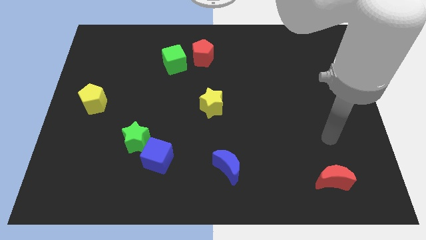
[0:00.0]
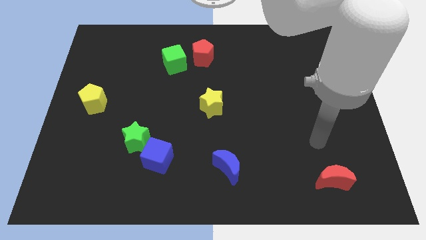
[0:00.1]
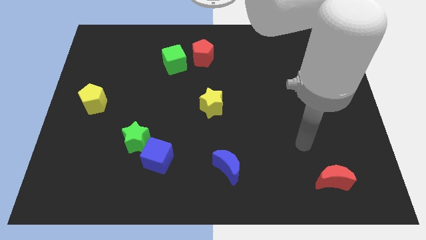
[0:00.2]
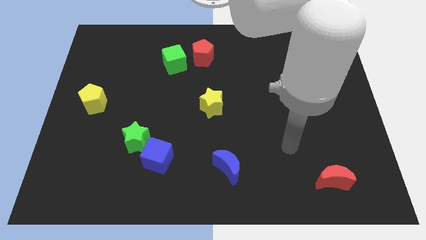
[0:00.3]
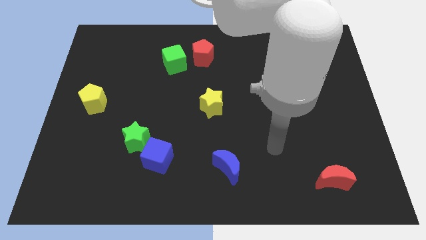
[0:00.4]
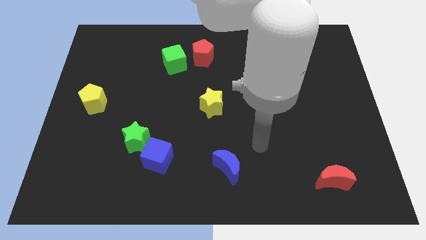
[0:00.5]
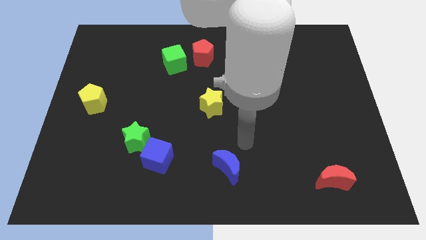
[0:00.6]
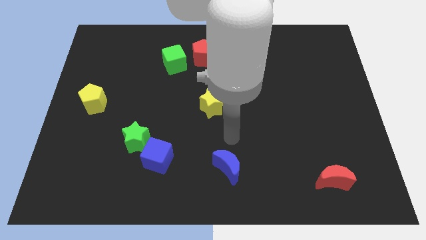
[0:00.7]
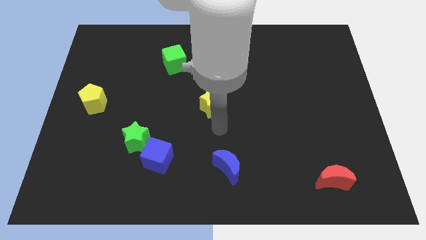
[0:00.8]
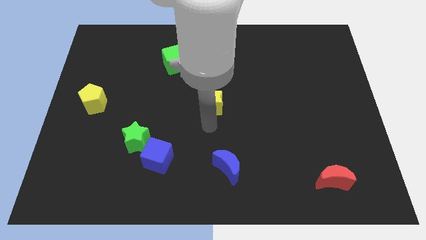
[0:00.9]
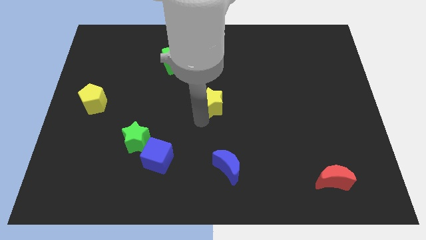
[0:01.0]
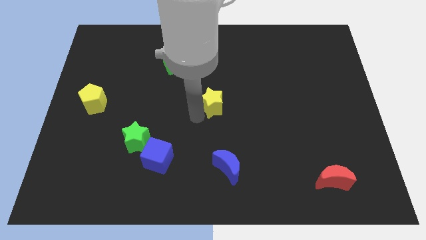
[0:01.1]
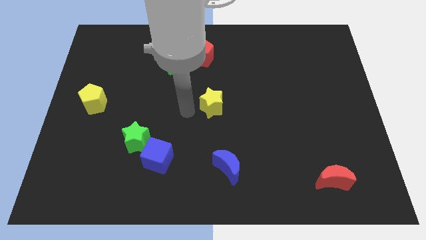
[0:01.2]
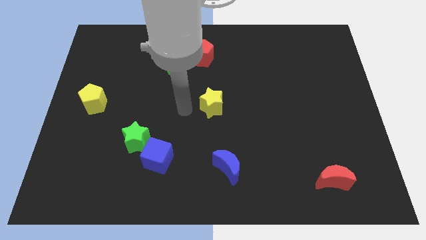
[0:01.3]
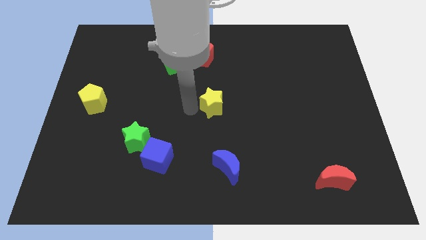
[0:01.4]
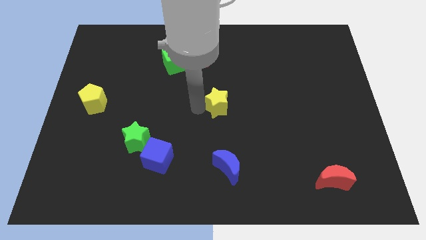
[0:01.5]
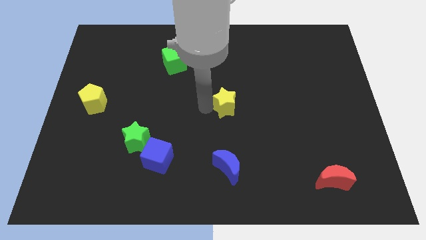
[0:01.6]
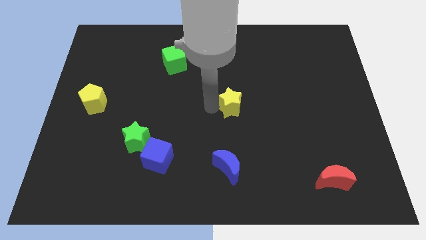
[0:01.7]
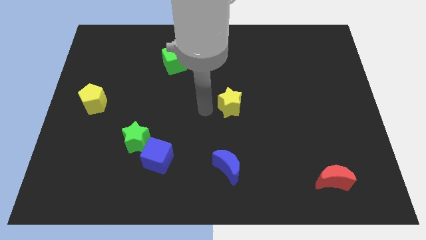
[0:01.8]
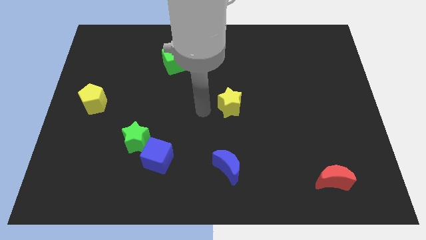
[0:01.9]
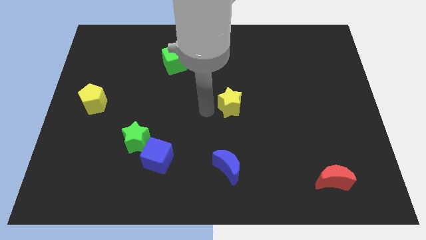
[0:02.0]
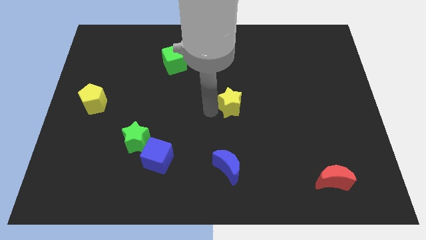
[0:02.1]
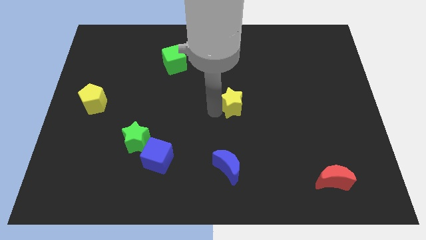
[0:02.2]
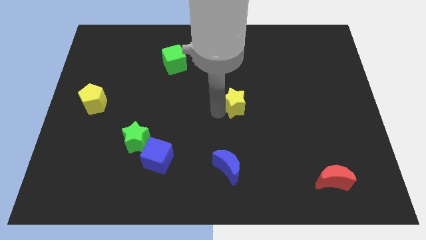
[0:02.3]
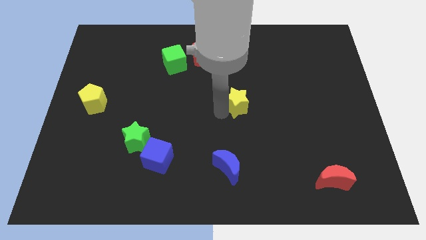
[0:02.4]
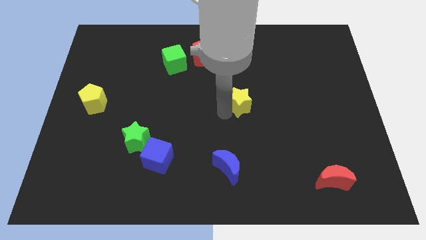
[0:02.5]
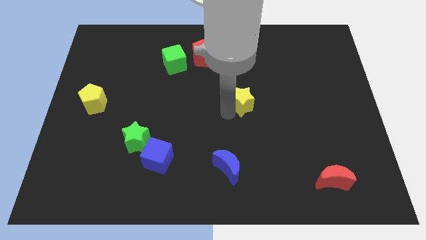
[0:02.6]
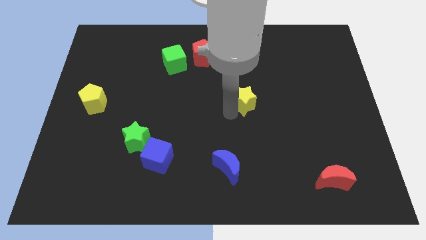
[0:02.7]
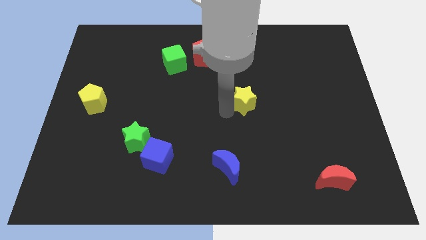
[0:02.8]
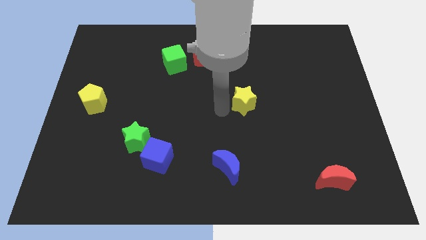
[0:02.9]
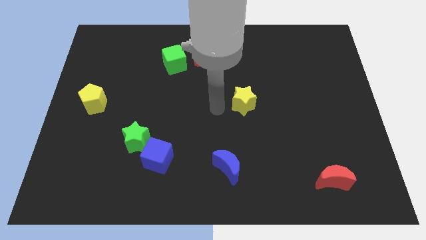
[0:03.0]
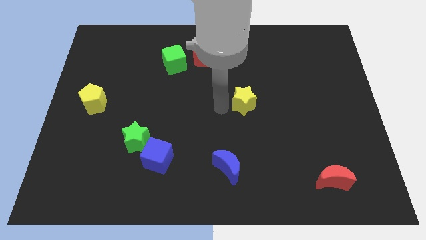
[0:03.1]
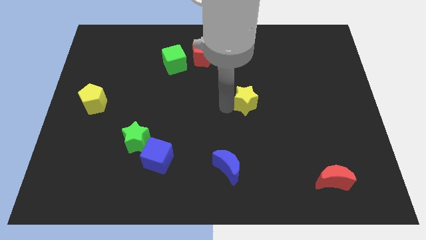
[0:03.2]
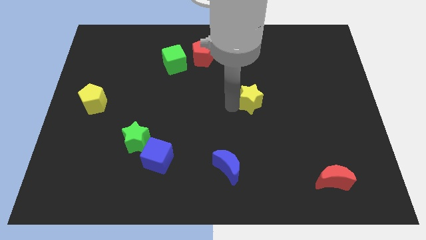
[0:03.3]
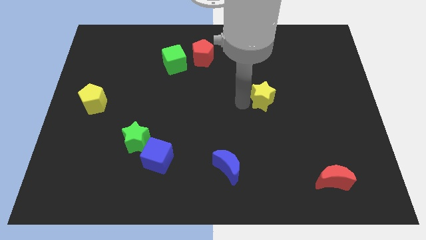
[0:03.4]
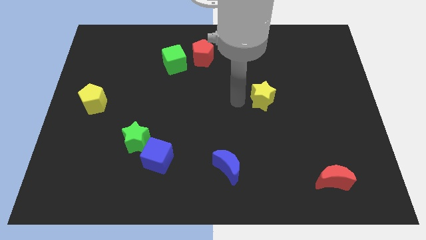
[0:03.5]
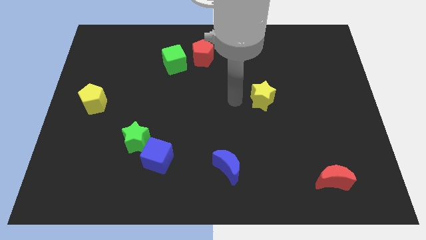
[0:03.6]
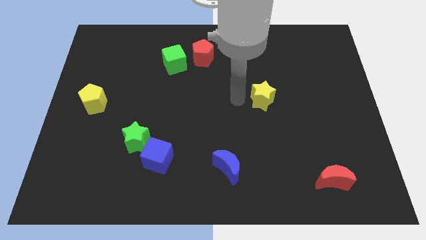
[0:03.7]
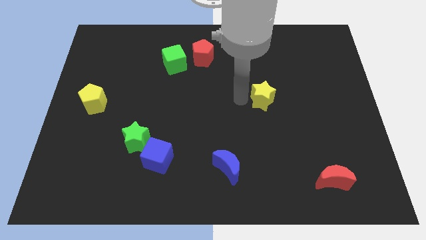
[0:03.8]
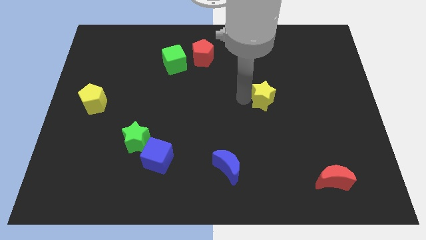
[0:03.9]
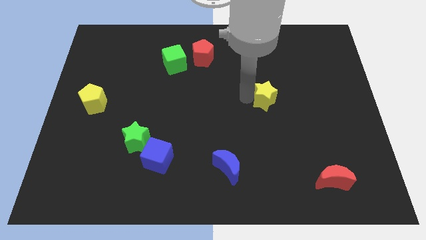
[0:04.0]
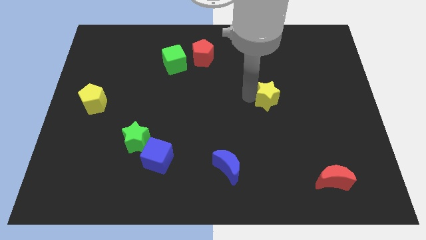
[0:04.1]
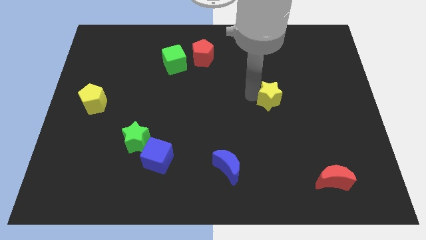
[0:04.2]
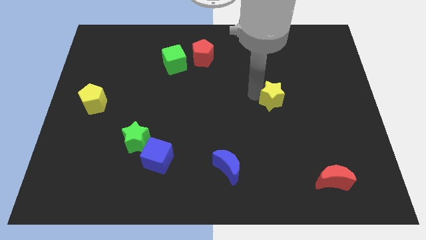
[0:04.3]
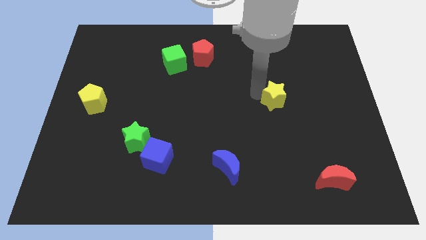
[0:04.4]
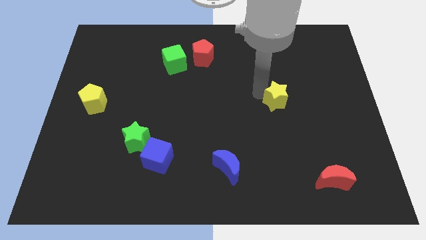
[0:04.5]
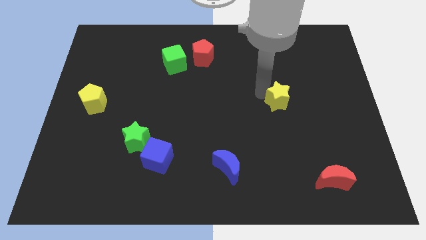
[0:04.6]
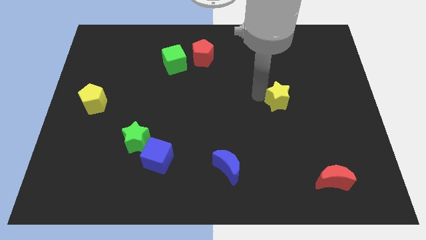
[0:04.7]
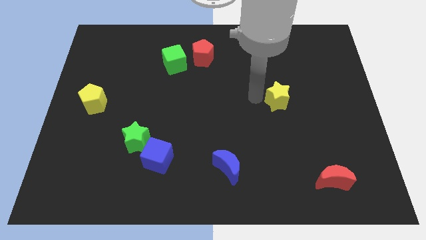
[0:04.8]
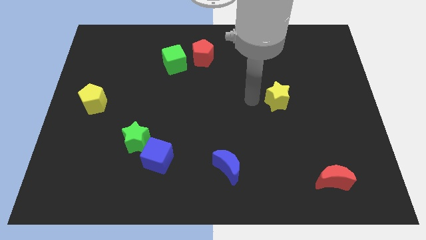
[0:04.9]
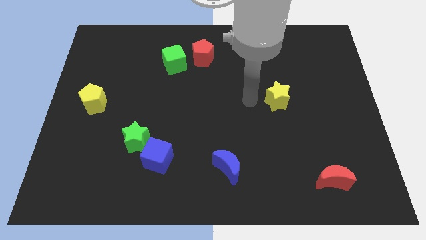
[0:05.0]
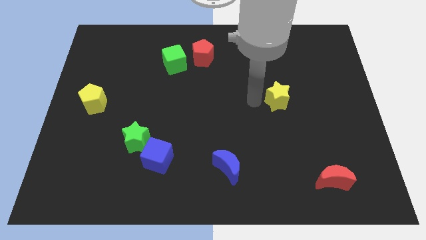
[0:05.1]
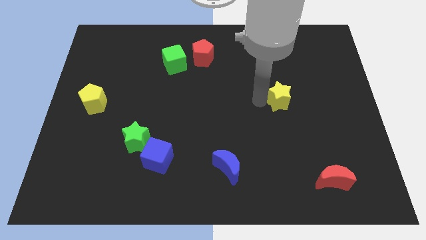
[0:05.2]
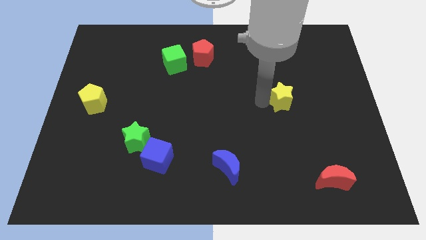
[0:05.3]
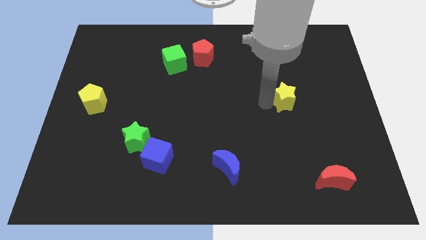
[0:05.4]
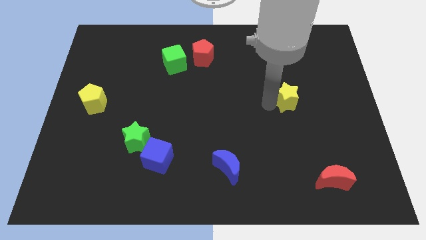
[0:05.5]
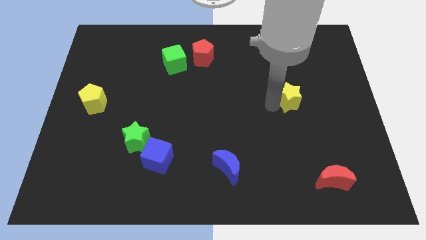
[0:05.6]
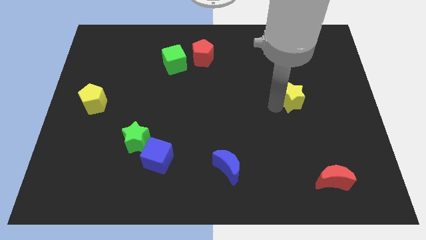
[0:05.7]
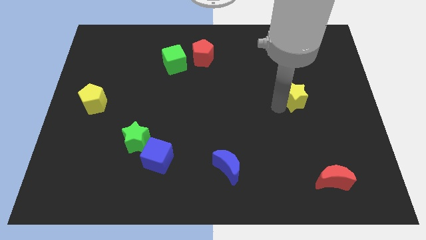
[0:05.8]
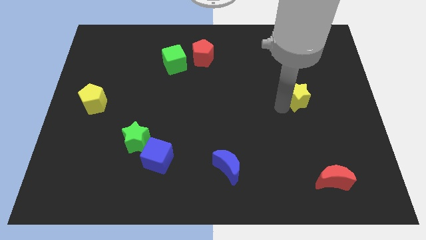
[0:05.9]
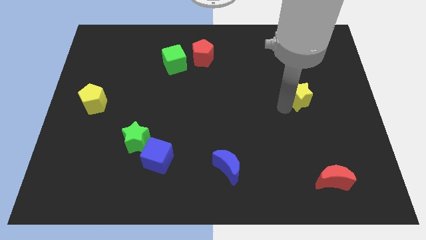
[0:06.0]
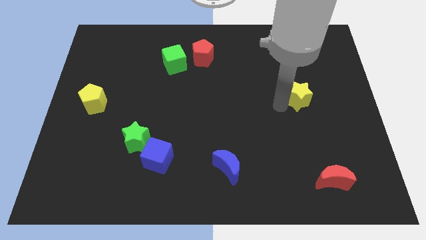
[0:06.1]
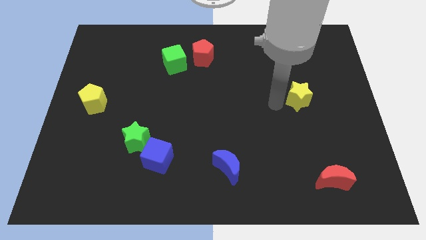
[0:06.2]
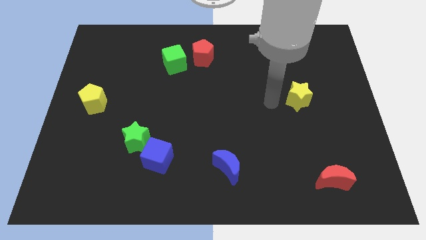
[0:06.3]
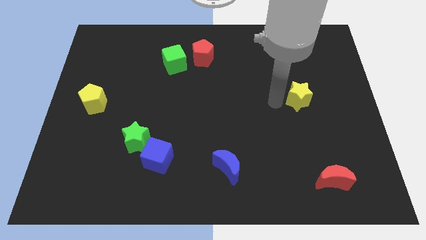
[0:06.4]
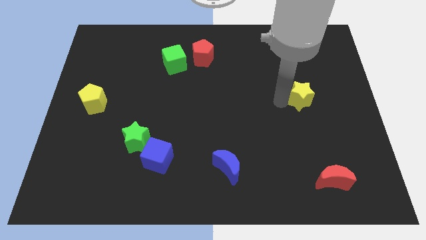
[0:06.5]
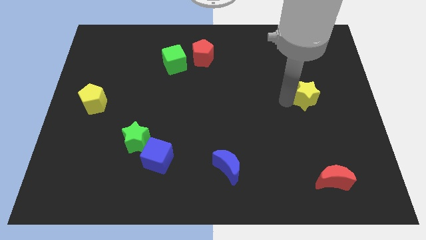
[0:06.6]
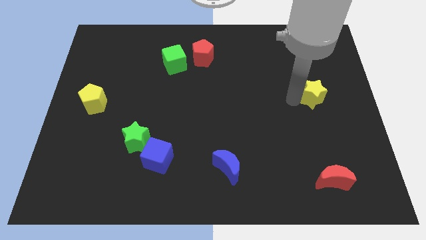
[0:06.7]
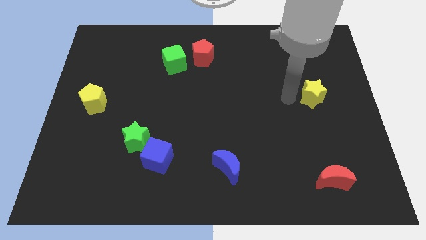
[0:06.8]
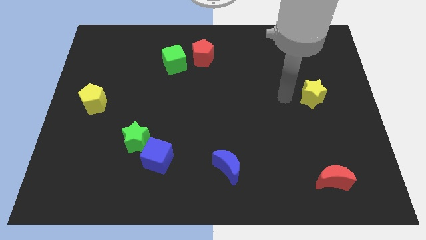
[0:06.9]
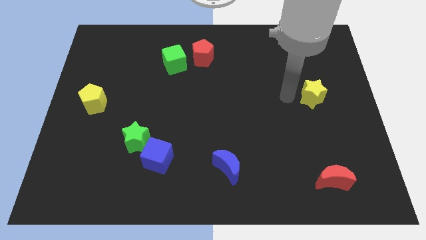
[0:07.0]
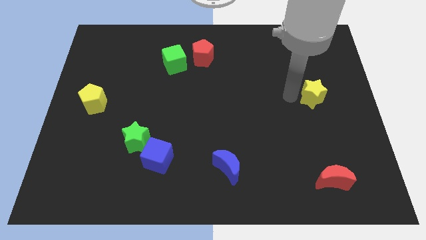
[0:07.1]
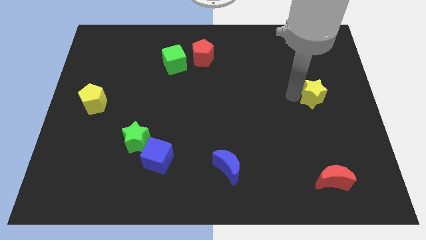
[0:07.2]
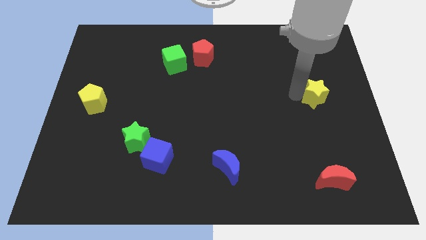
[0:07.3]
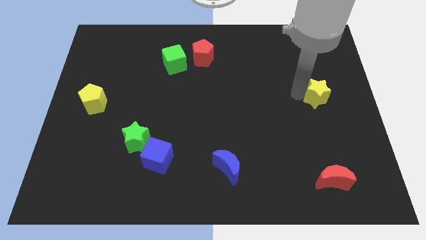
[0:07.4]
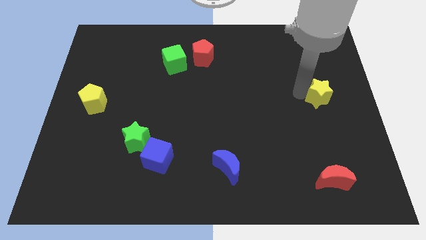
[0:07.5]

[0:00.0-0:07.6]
move the yellow star to the center right
